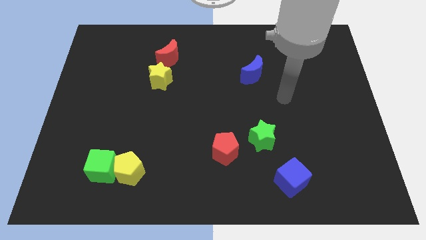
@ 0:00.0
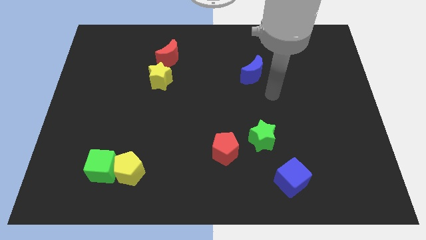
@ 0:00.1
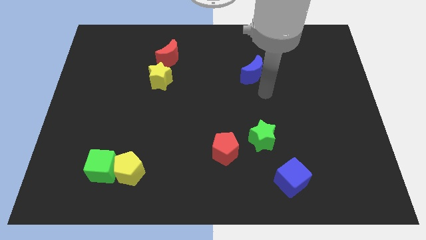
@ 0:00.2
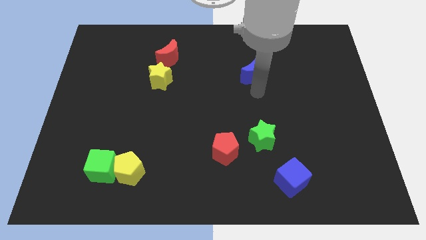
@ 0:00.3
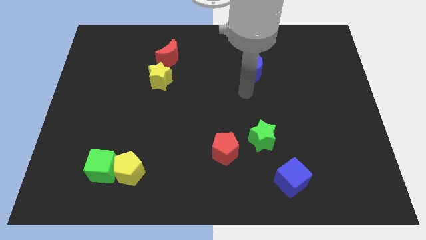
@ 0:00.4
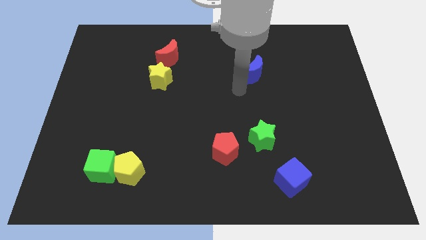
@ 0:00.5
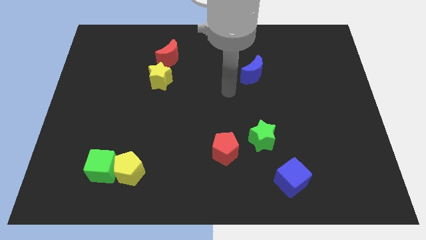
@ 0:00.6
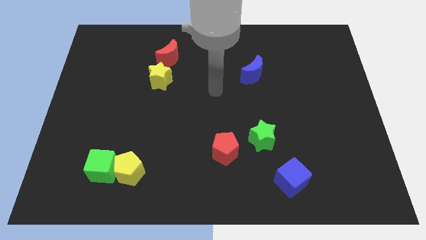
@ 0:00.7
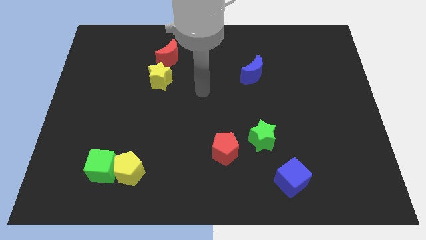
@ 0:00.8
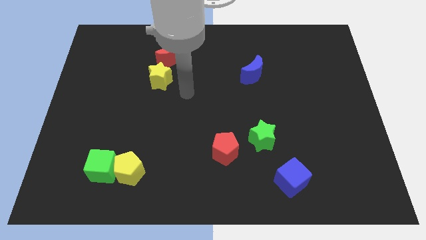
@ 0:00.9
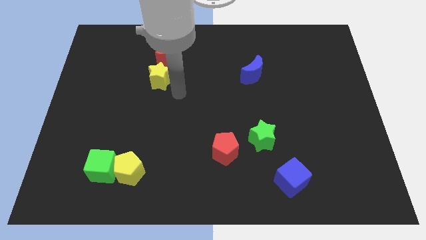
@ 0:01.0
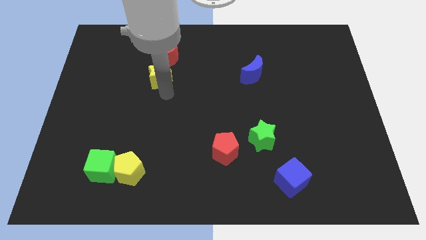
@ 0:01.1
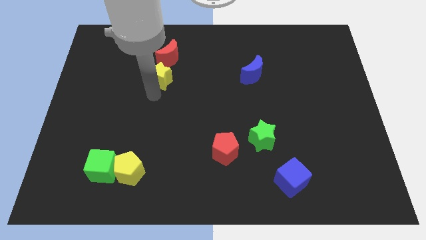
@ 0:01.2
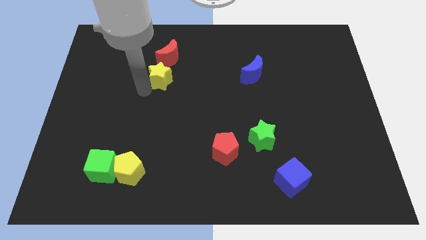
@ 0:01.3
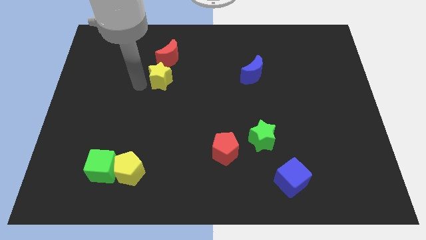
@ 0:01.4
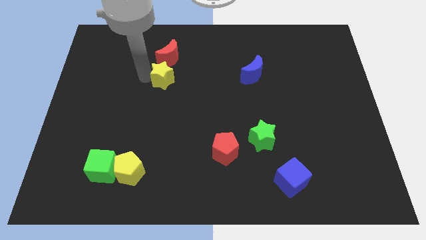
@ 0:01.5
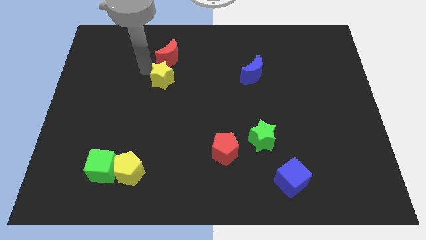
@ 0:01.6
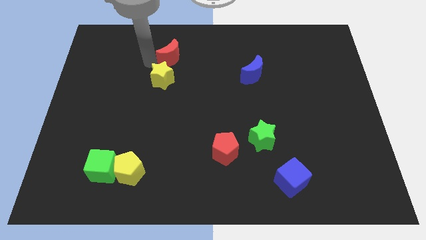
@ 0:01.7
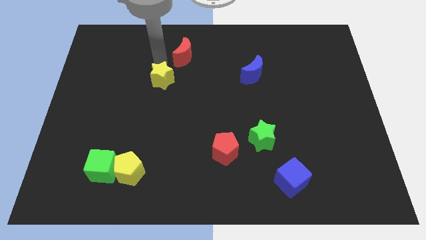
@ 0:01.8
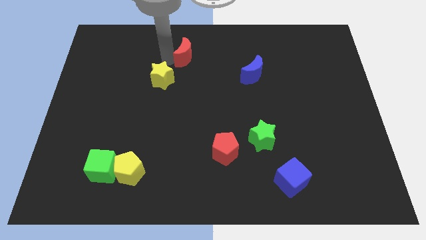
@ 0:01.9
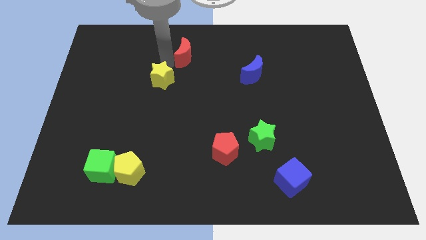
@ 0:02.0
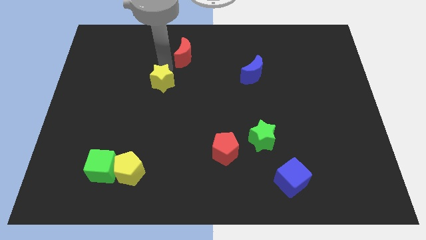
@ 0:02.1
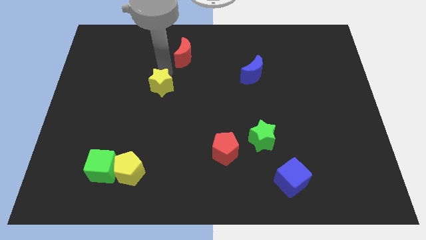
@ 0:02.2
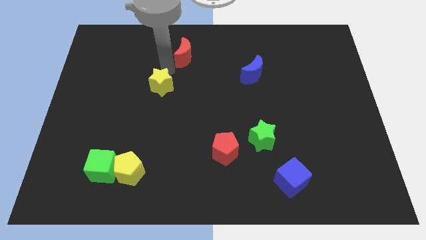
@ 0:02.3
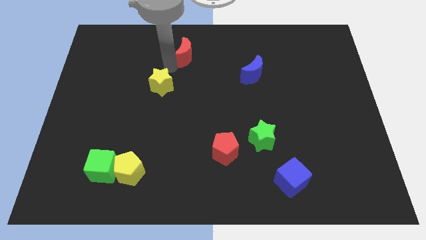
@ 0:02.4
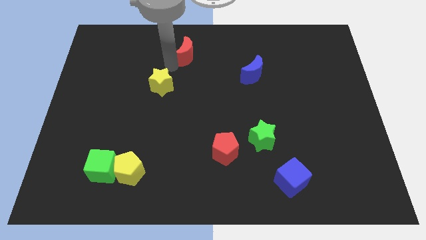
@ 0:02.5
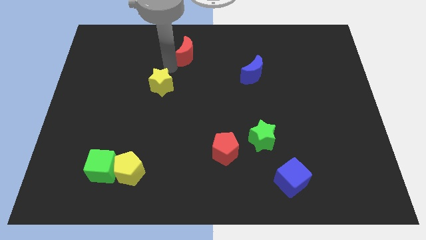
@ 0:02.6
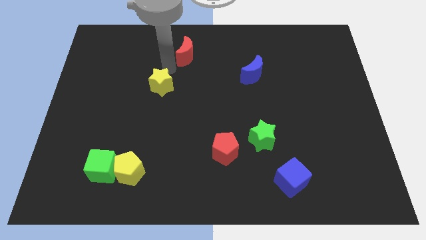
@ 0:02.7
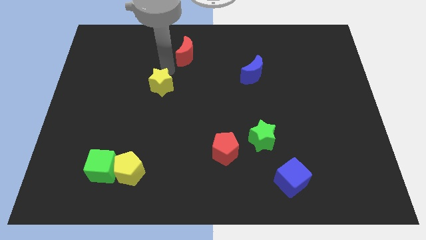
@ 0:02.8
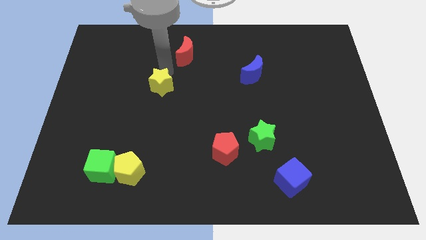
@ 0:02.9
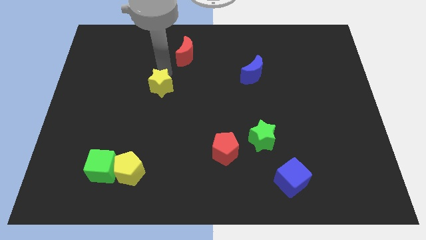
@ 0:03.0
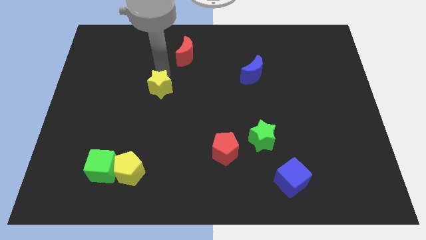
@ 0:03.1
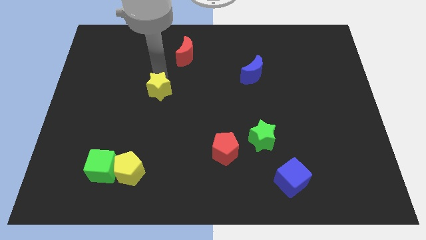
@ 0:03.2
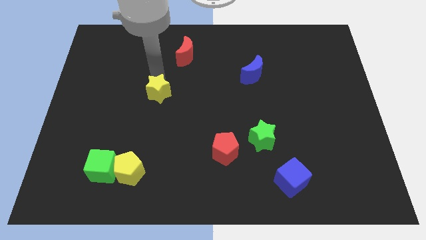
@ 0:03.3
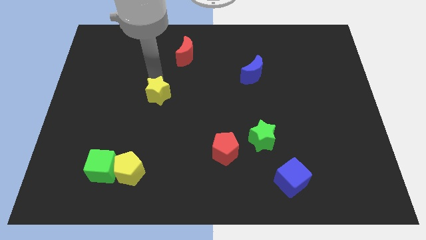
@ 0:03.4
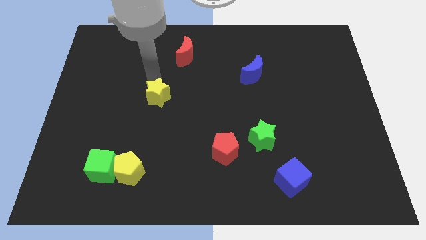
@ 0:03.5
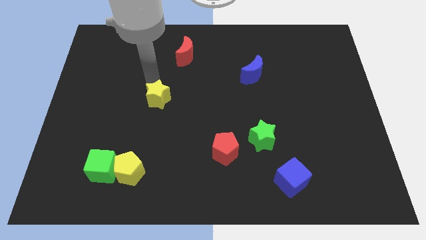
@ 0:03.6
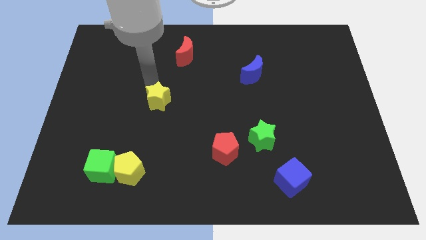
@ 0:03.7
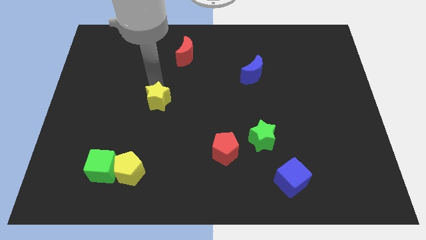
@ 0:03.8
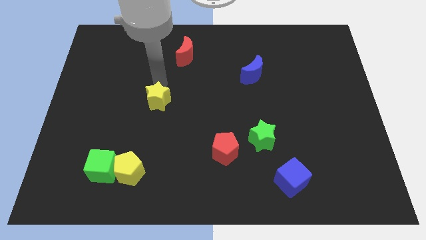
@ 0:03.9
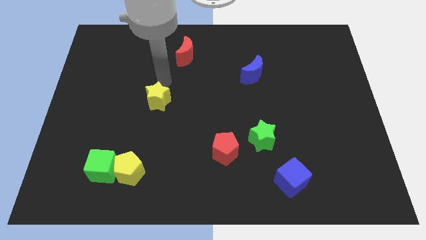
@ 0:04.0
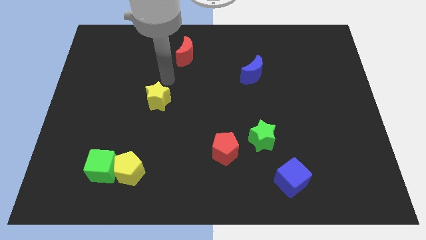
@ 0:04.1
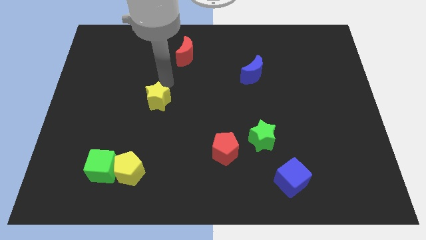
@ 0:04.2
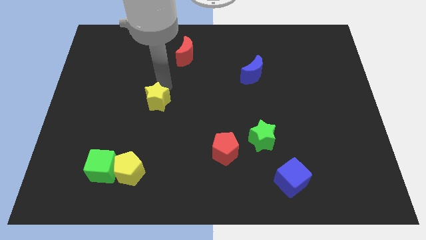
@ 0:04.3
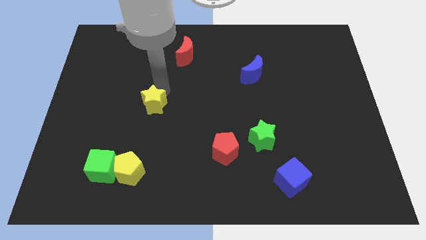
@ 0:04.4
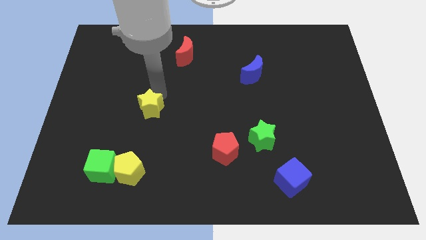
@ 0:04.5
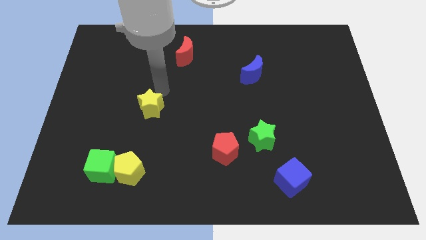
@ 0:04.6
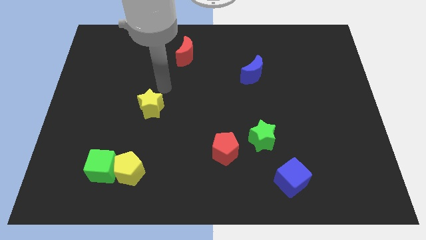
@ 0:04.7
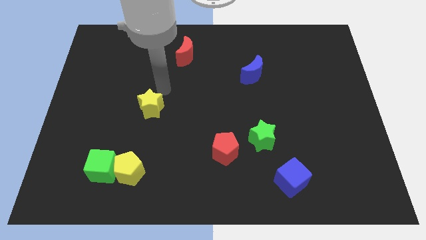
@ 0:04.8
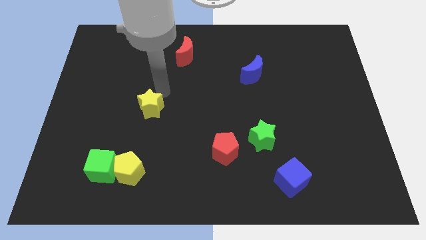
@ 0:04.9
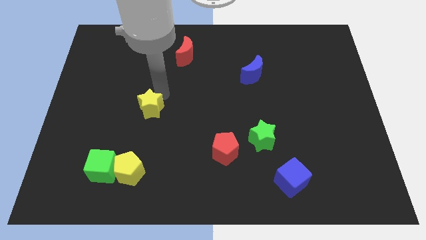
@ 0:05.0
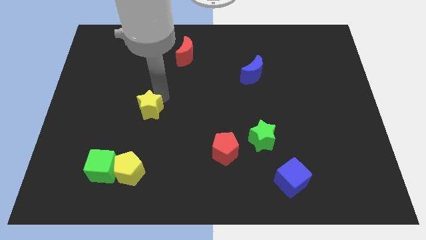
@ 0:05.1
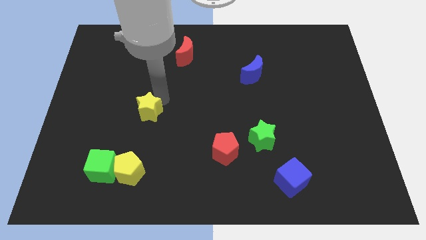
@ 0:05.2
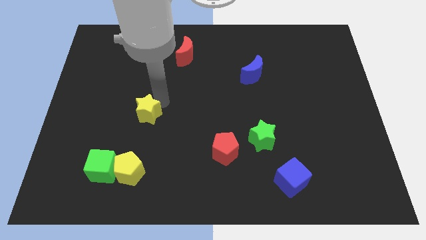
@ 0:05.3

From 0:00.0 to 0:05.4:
move the yellow star to the top of the yellow pentagon

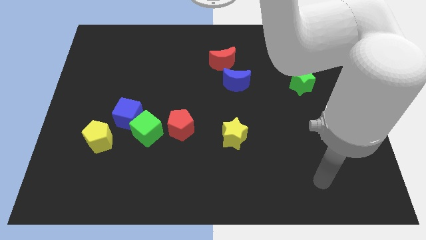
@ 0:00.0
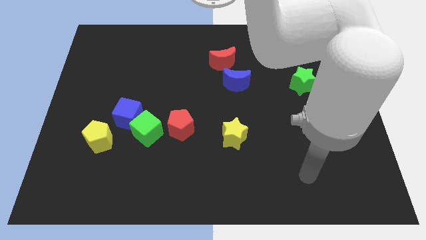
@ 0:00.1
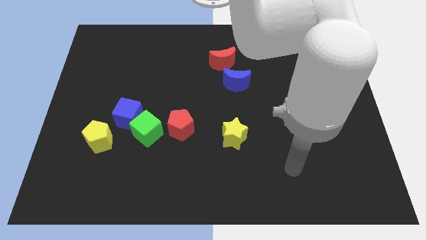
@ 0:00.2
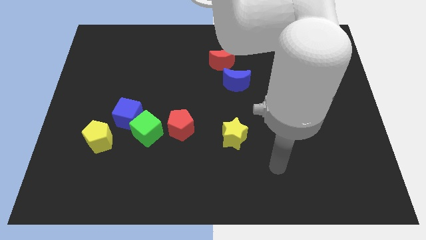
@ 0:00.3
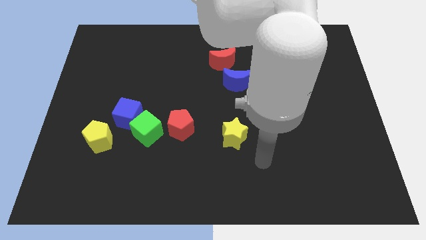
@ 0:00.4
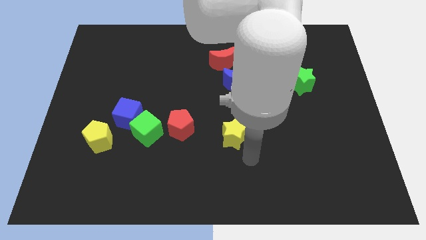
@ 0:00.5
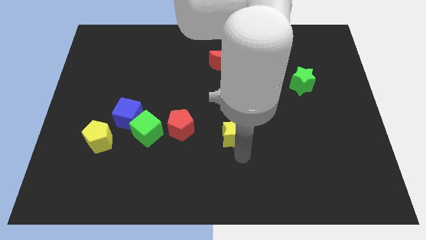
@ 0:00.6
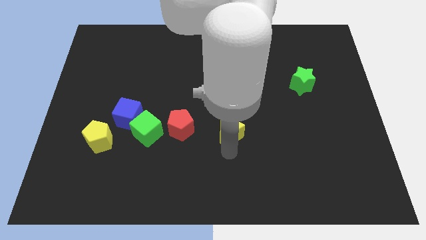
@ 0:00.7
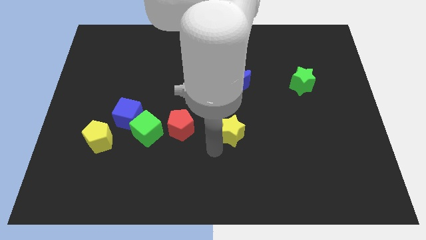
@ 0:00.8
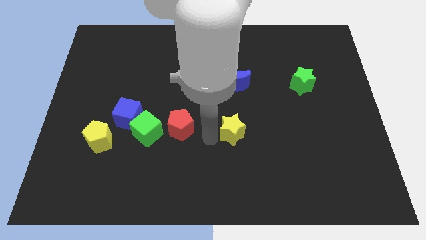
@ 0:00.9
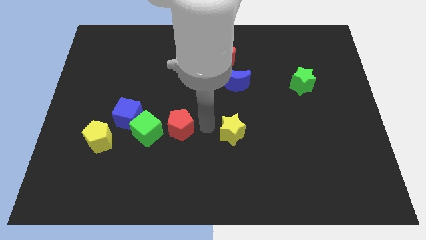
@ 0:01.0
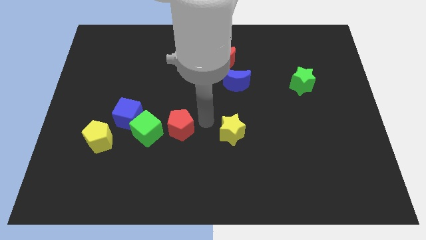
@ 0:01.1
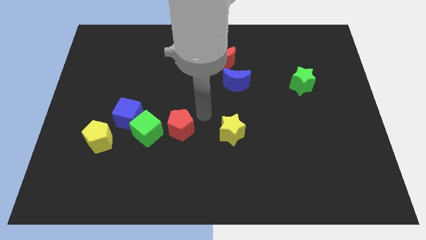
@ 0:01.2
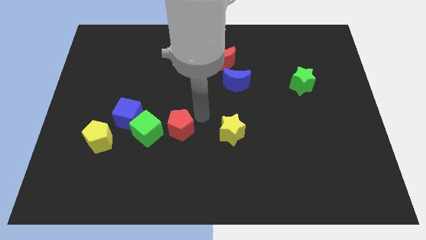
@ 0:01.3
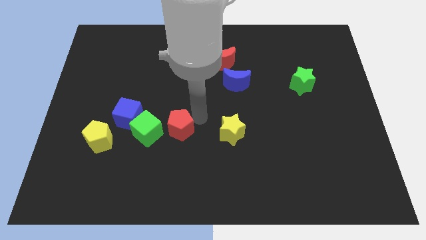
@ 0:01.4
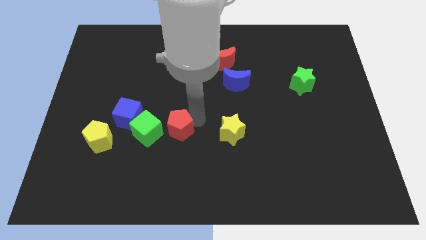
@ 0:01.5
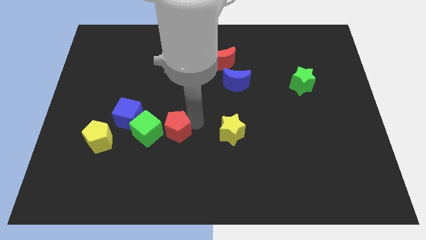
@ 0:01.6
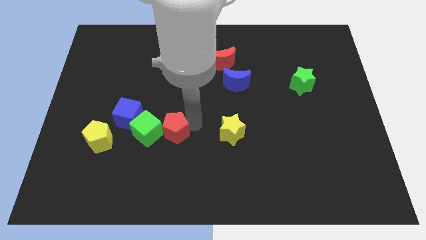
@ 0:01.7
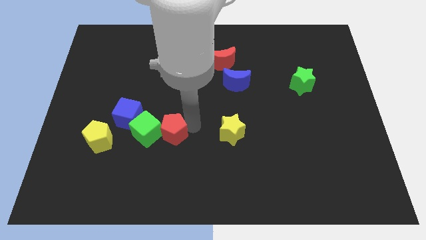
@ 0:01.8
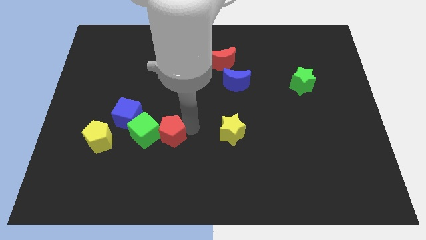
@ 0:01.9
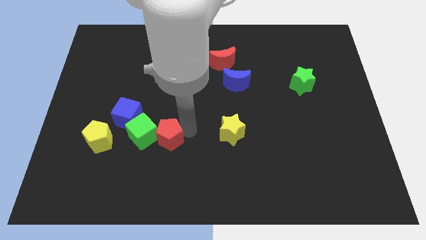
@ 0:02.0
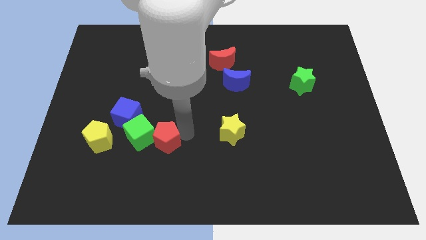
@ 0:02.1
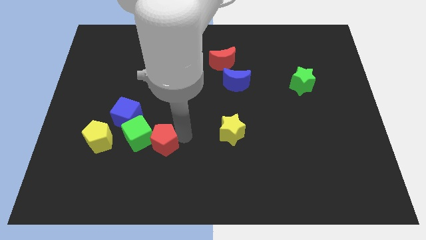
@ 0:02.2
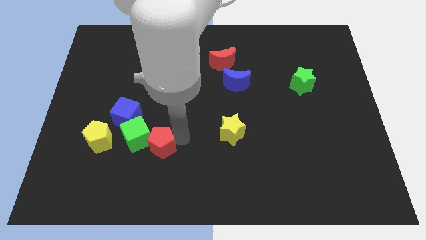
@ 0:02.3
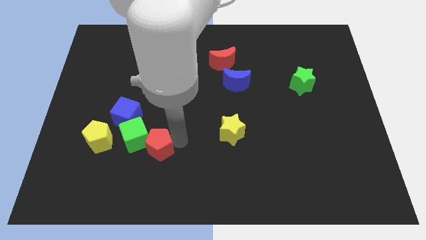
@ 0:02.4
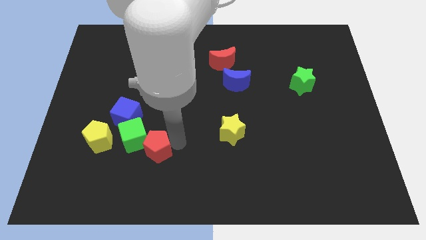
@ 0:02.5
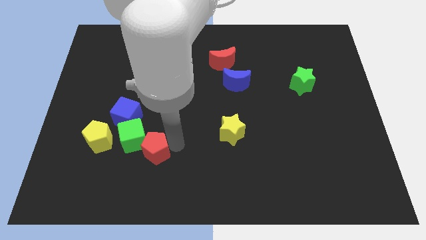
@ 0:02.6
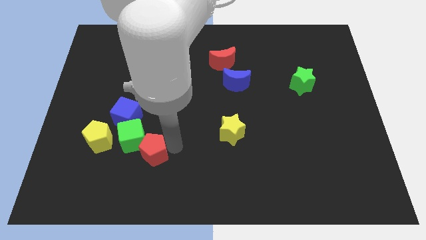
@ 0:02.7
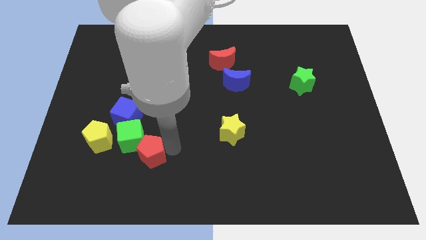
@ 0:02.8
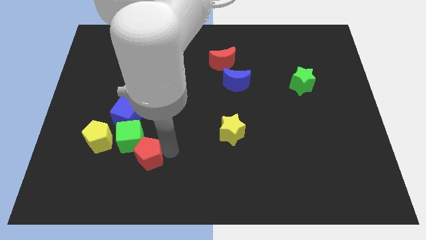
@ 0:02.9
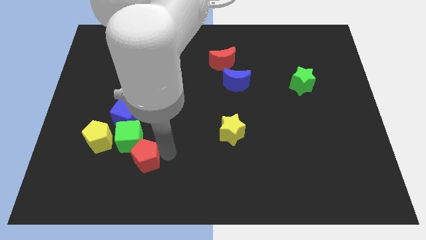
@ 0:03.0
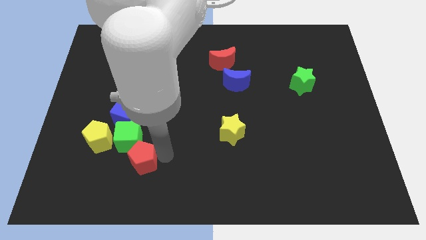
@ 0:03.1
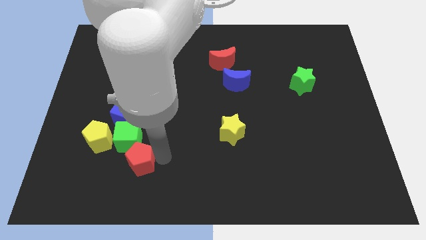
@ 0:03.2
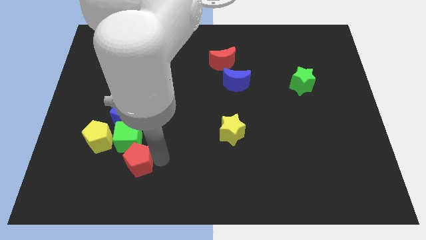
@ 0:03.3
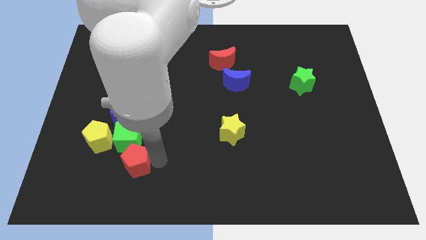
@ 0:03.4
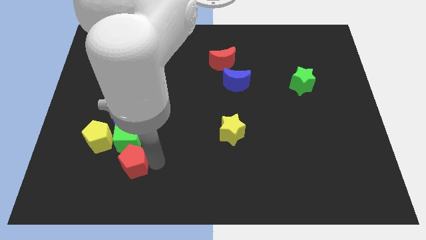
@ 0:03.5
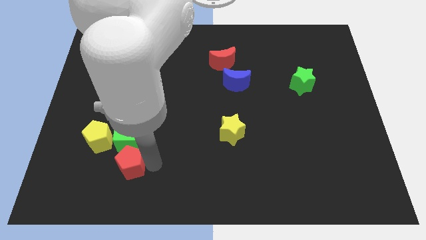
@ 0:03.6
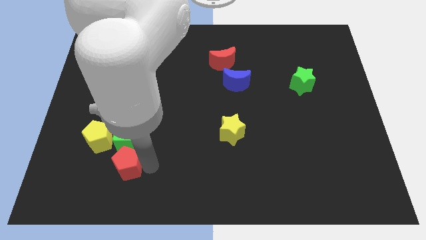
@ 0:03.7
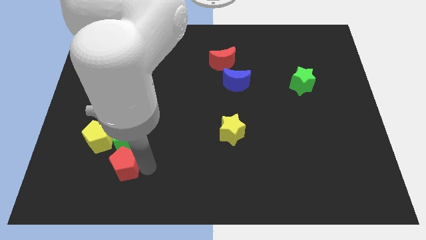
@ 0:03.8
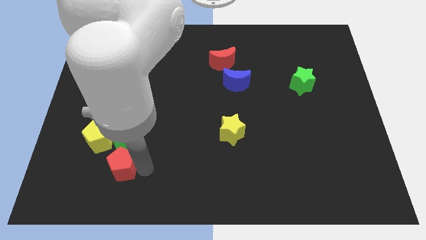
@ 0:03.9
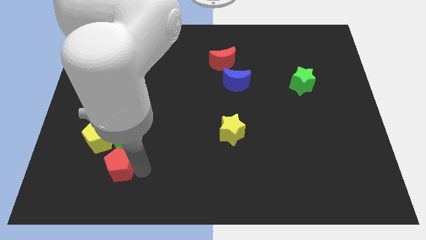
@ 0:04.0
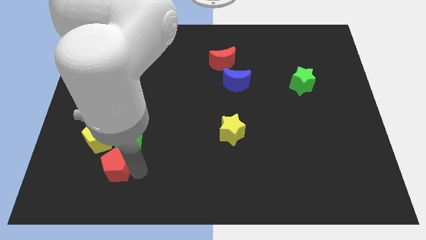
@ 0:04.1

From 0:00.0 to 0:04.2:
put the red pentagon to the bottom side of the yellow pentagon
